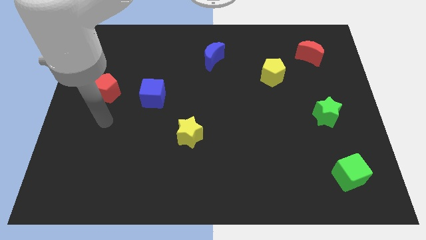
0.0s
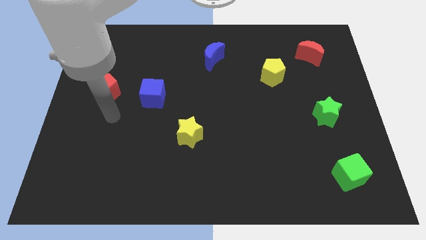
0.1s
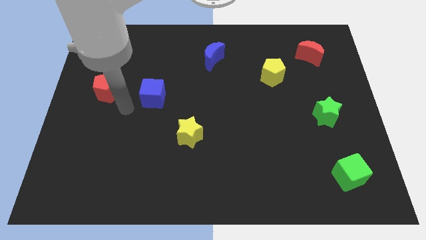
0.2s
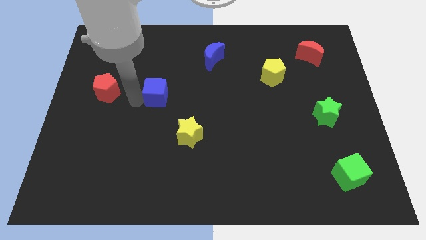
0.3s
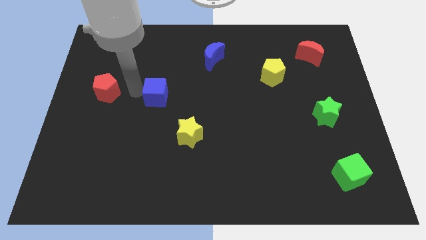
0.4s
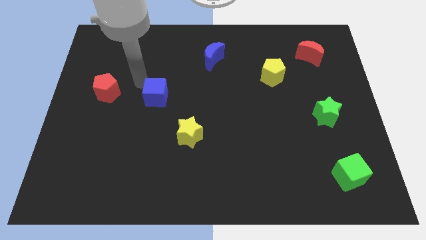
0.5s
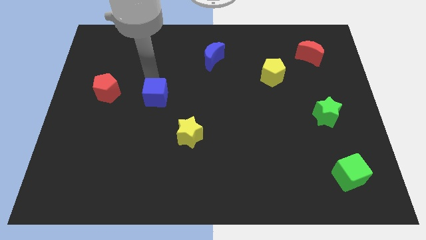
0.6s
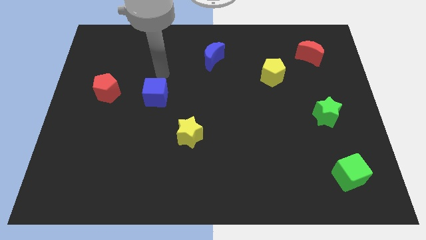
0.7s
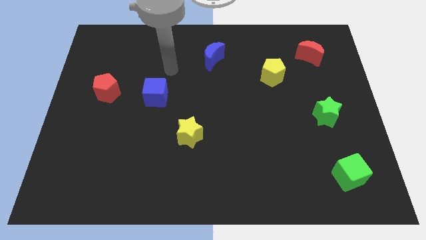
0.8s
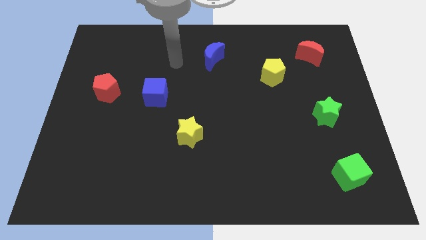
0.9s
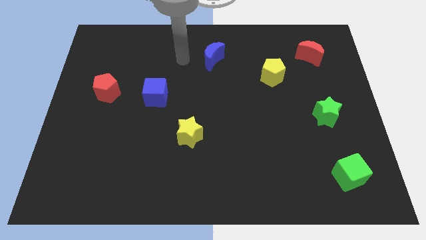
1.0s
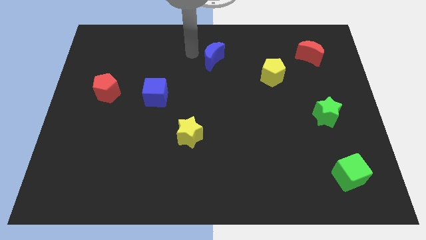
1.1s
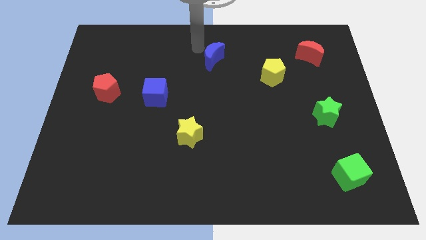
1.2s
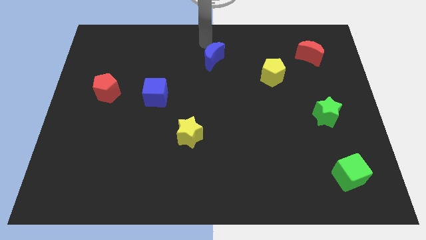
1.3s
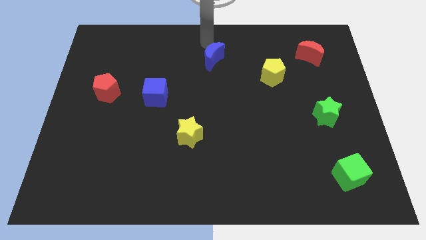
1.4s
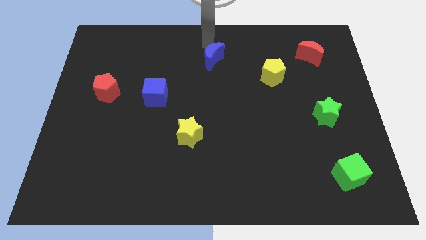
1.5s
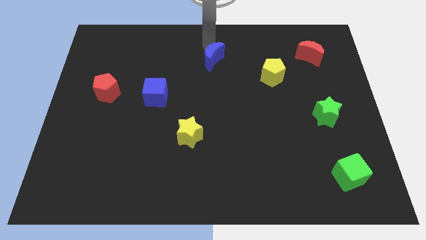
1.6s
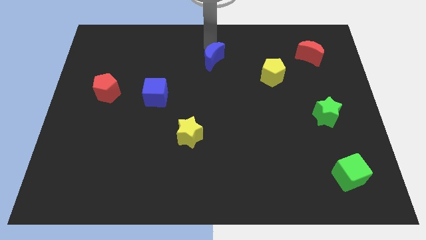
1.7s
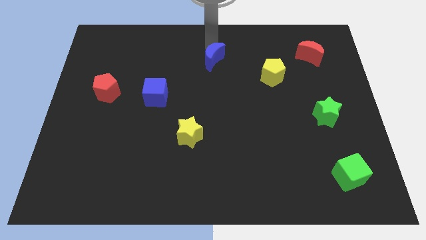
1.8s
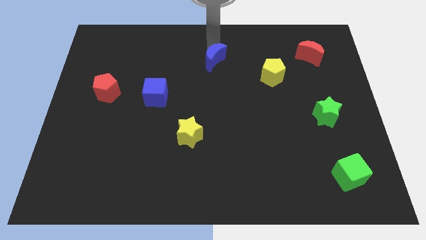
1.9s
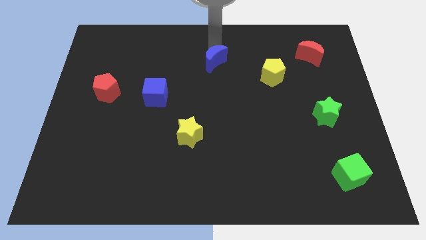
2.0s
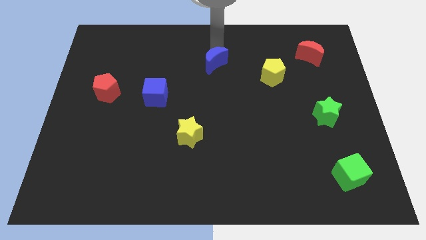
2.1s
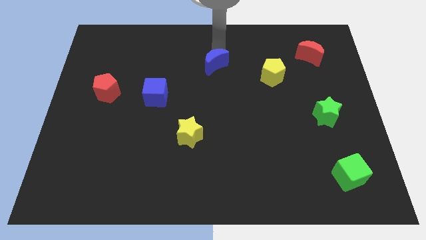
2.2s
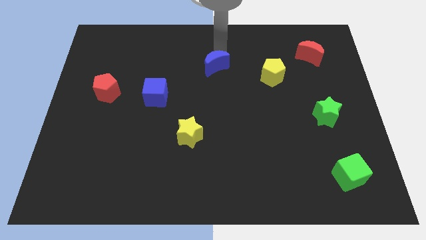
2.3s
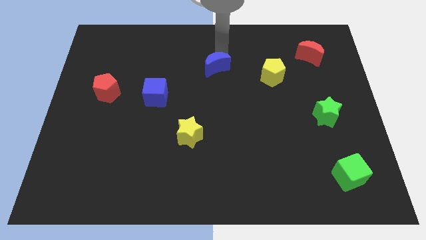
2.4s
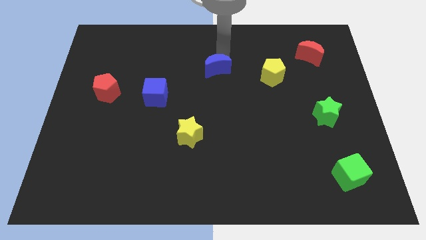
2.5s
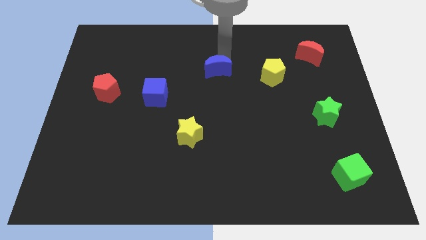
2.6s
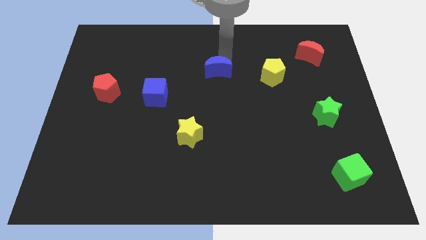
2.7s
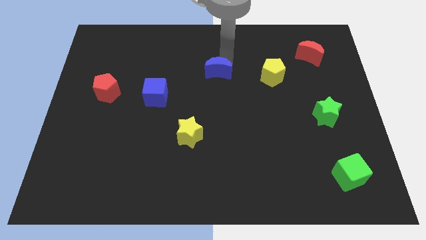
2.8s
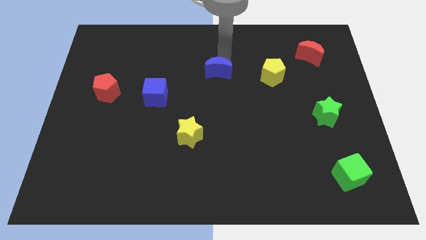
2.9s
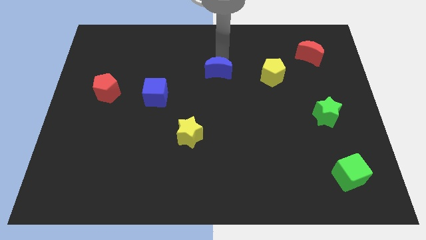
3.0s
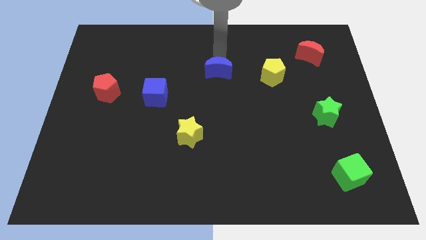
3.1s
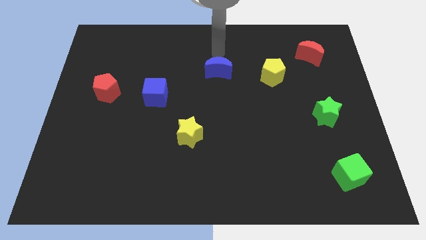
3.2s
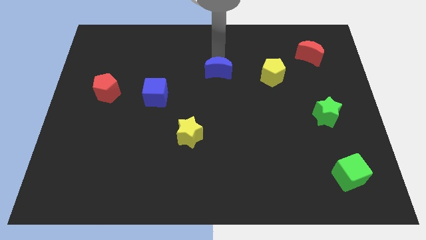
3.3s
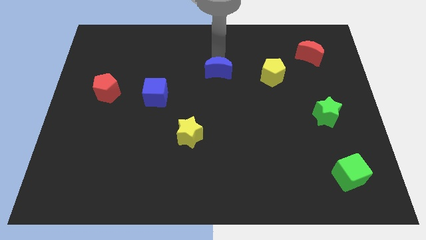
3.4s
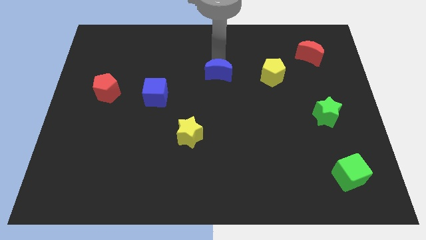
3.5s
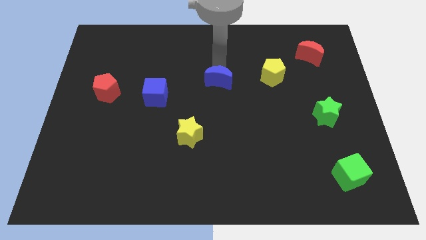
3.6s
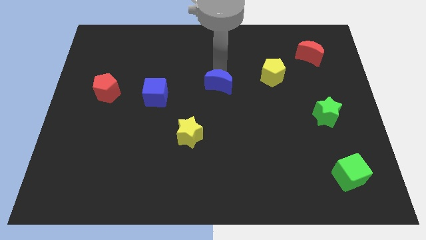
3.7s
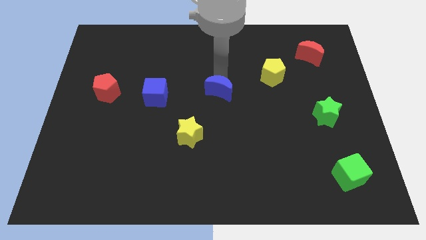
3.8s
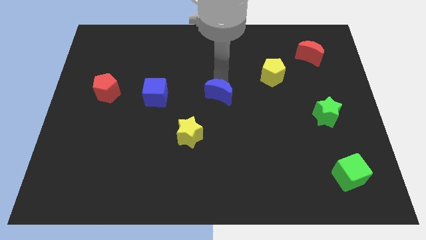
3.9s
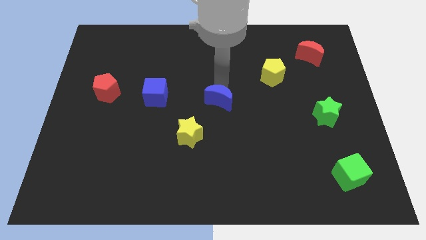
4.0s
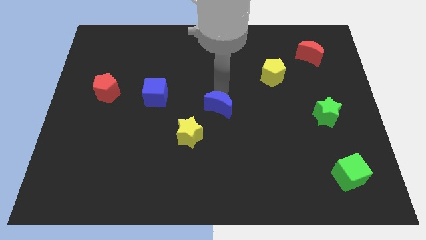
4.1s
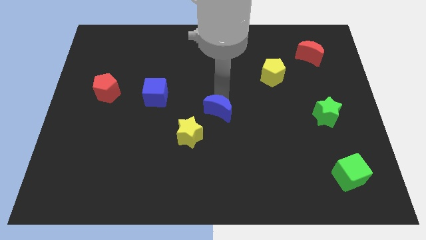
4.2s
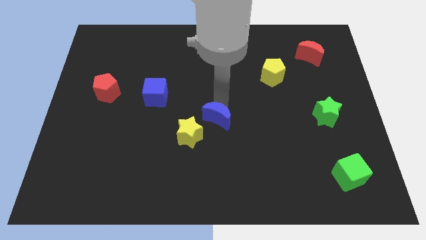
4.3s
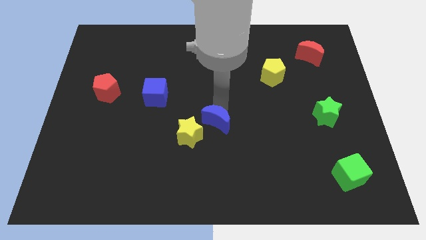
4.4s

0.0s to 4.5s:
move the blue moon downwards

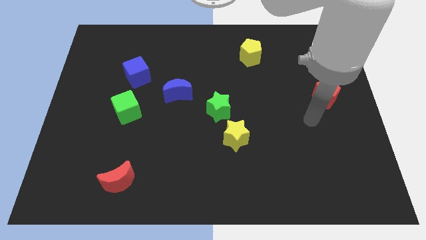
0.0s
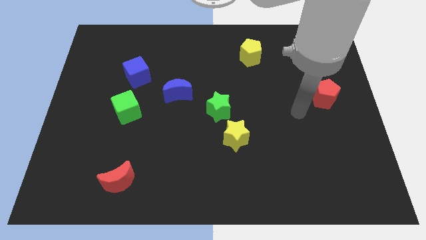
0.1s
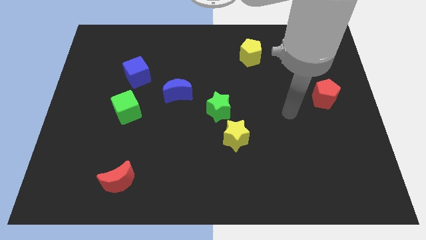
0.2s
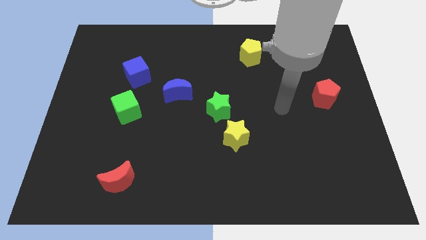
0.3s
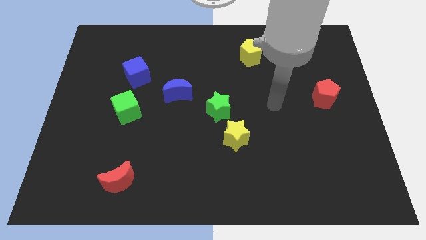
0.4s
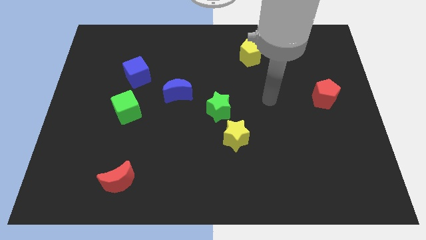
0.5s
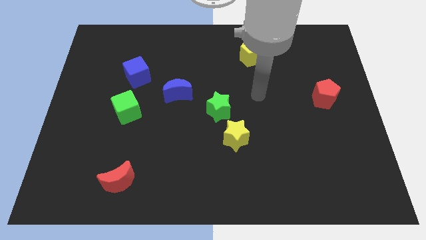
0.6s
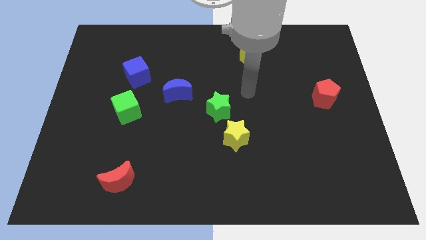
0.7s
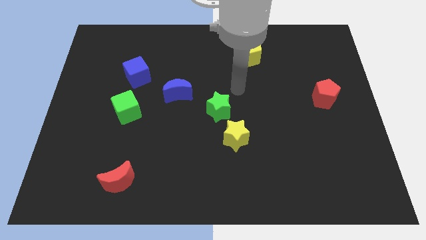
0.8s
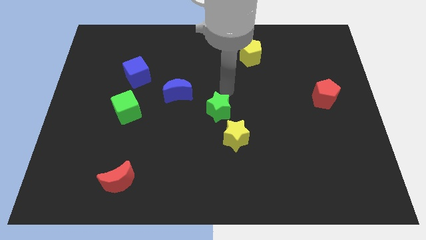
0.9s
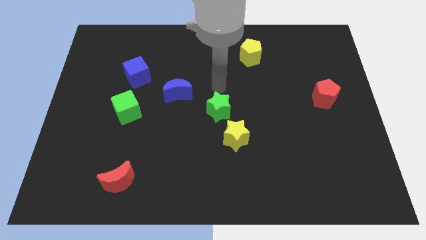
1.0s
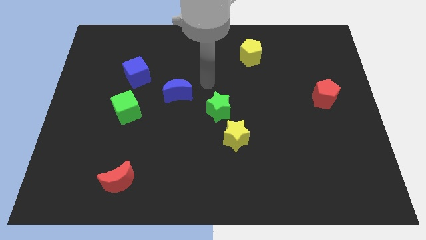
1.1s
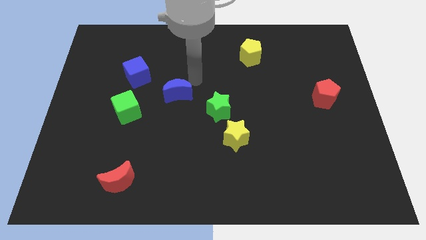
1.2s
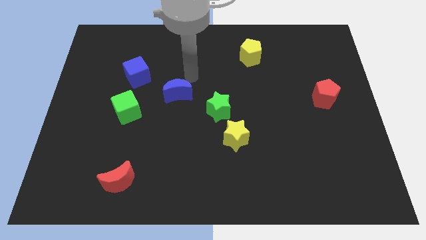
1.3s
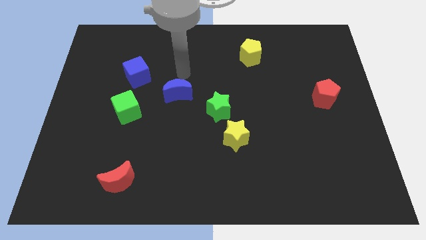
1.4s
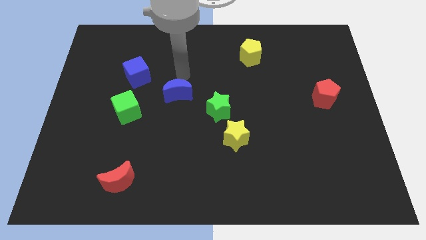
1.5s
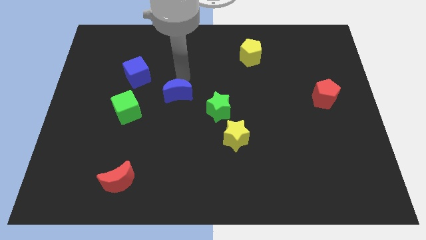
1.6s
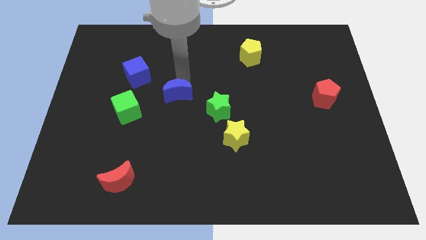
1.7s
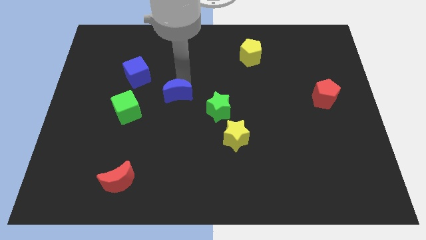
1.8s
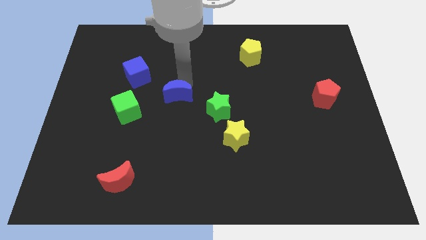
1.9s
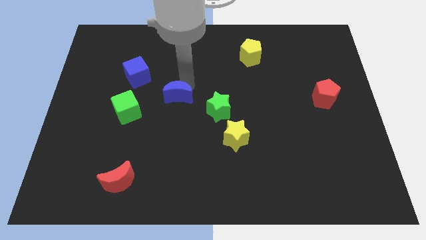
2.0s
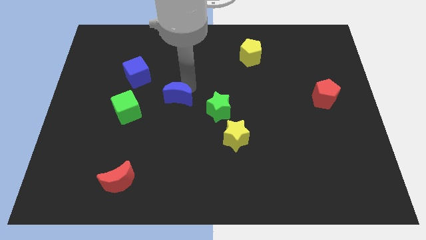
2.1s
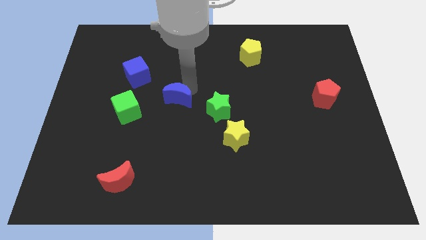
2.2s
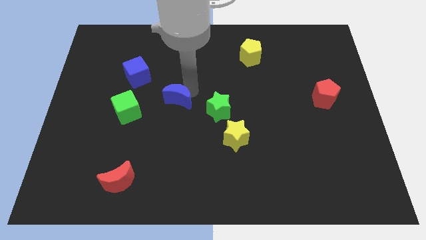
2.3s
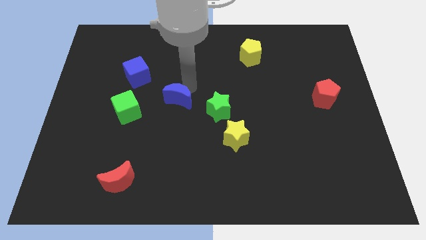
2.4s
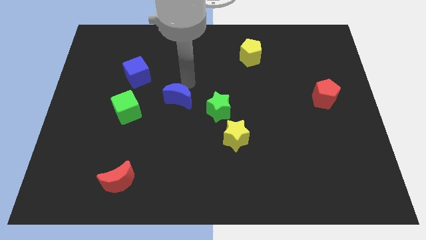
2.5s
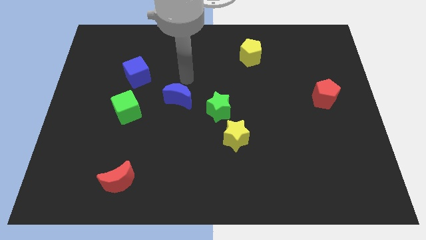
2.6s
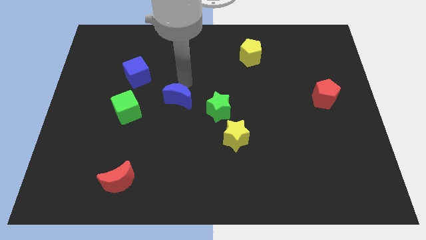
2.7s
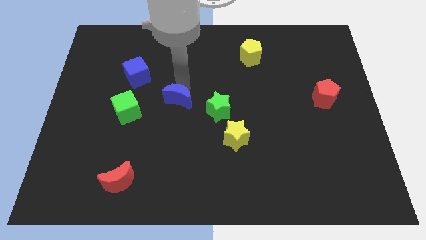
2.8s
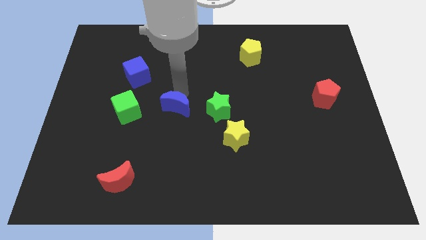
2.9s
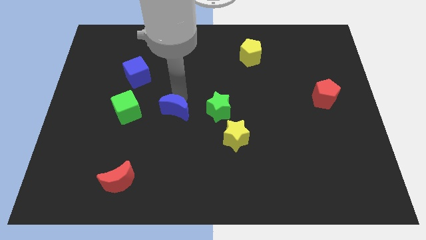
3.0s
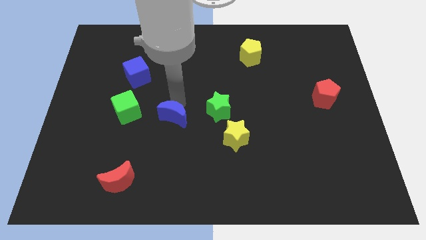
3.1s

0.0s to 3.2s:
push the blue moon a little bit downwards

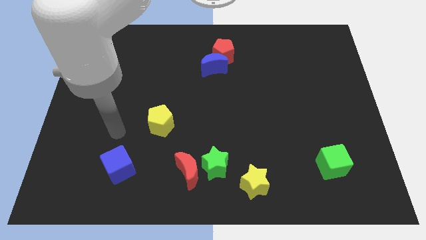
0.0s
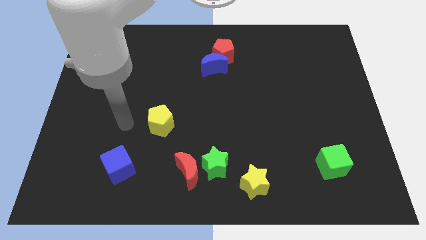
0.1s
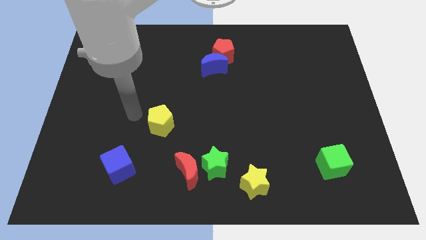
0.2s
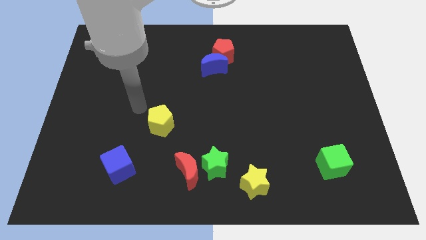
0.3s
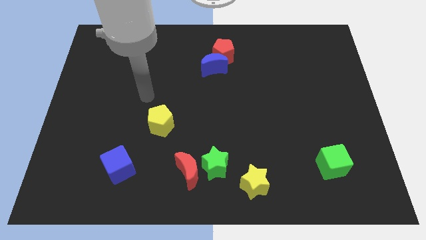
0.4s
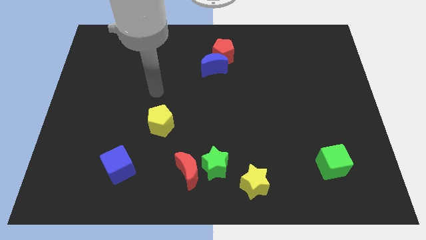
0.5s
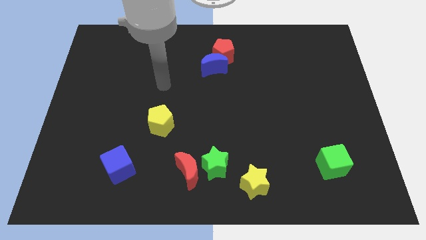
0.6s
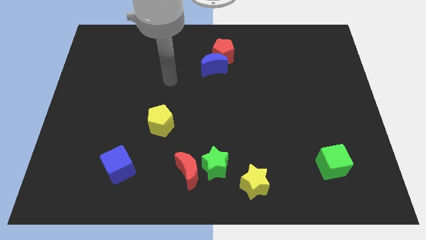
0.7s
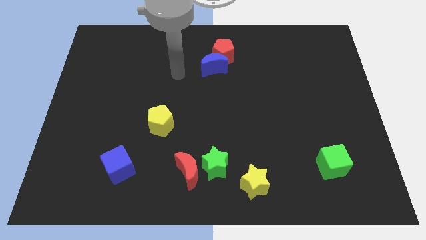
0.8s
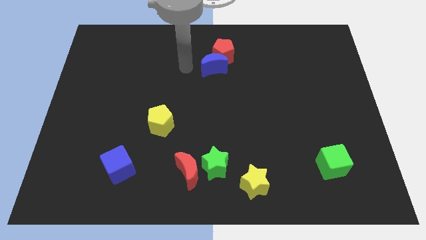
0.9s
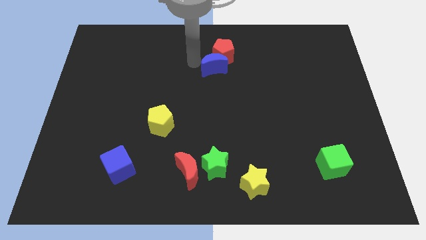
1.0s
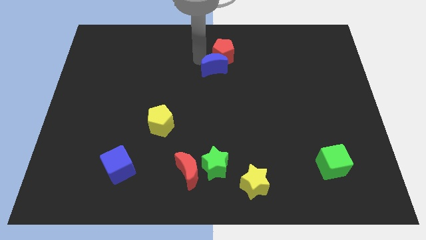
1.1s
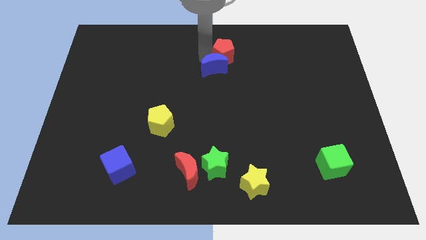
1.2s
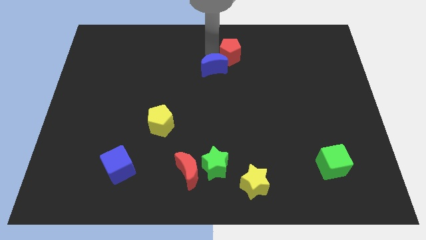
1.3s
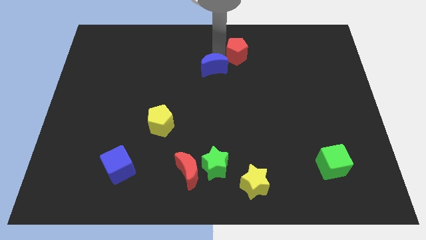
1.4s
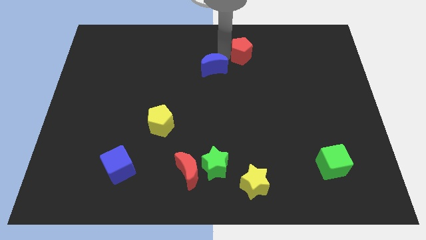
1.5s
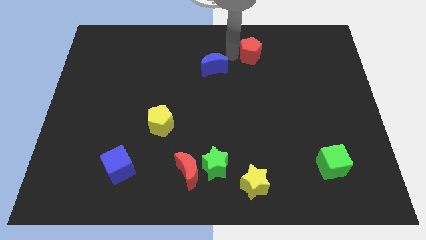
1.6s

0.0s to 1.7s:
slide the red pentagon right a bit
